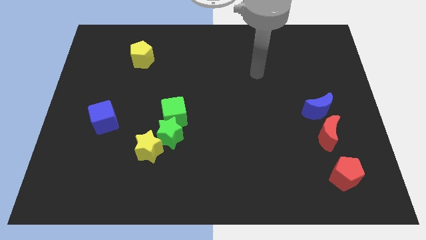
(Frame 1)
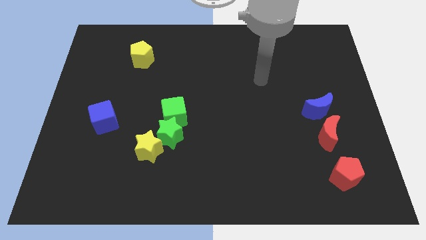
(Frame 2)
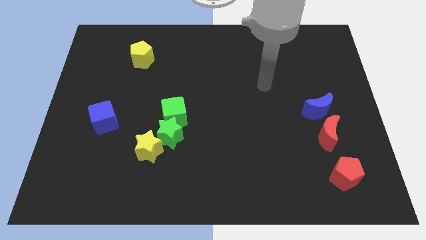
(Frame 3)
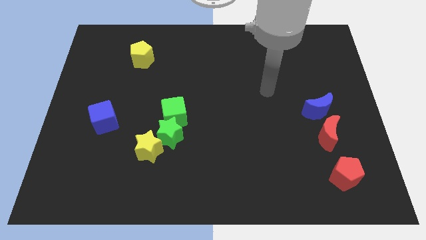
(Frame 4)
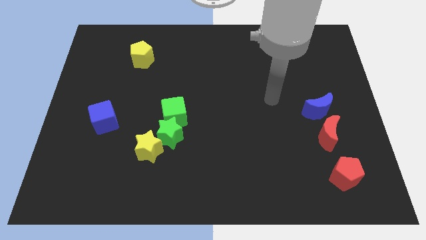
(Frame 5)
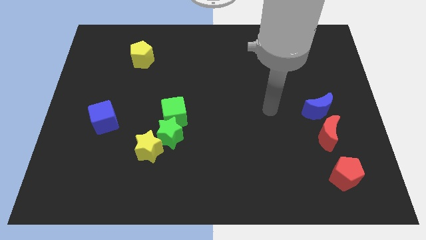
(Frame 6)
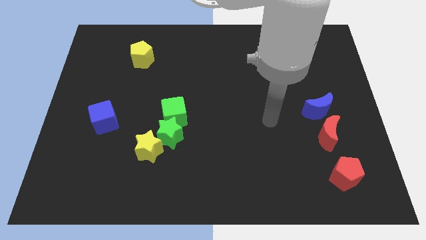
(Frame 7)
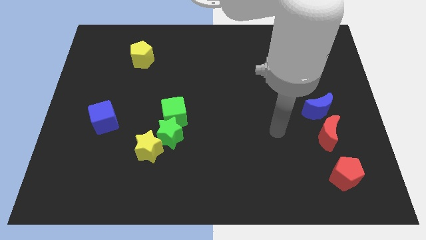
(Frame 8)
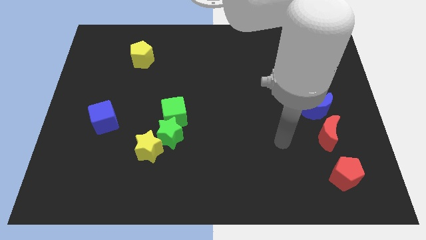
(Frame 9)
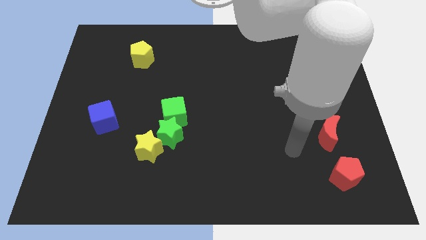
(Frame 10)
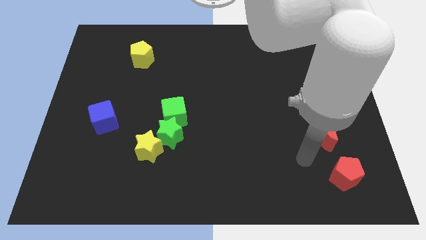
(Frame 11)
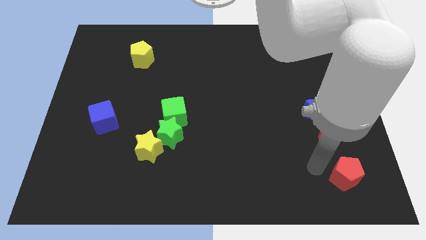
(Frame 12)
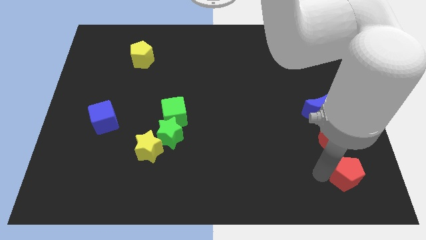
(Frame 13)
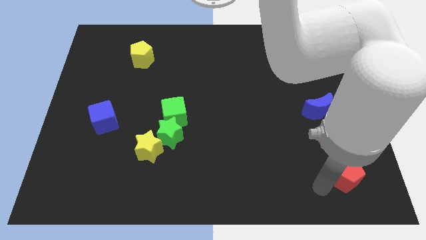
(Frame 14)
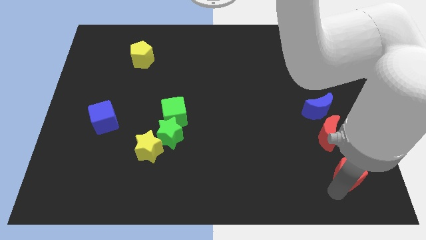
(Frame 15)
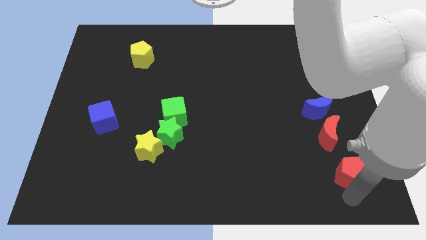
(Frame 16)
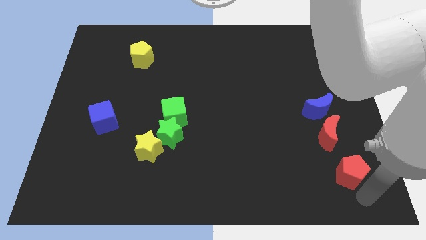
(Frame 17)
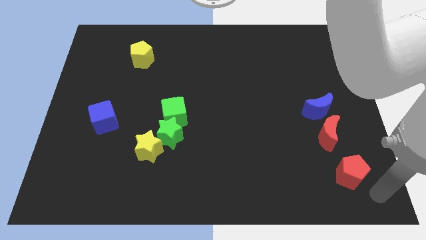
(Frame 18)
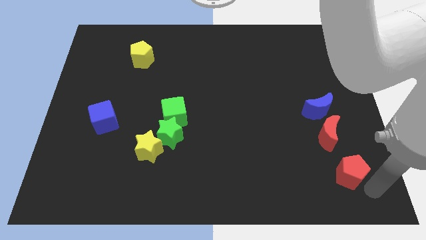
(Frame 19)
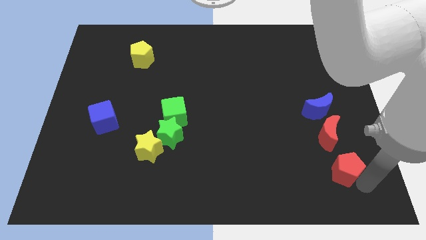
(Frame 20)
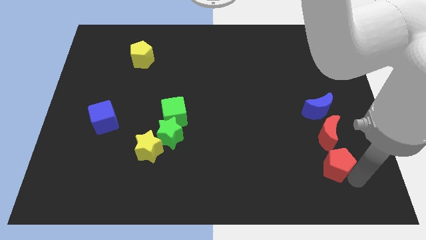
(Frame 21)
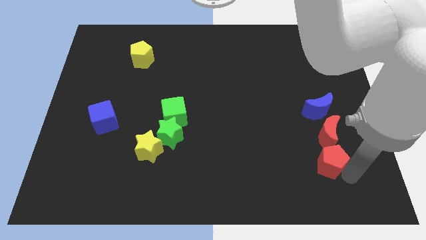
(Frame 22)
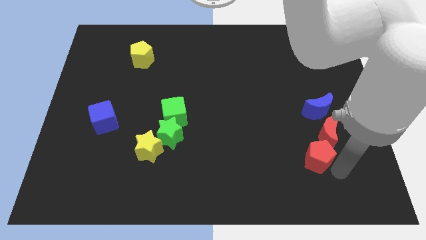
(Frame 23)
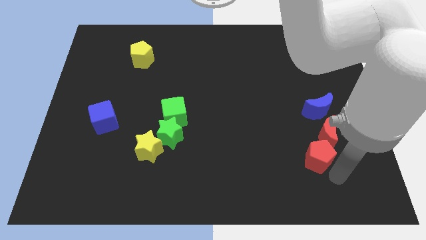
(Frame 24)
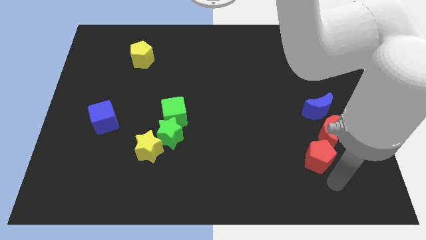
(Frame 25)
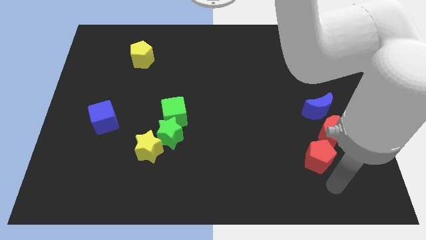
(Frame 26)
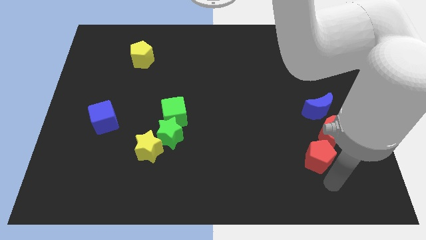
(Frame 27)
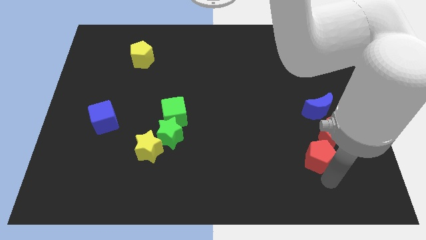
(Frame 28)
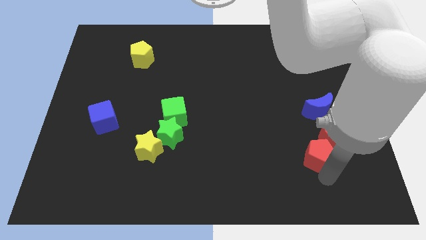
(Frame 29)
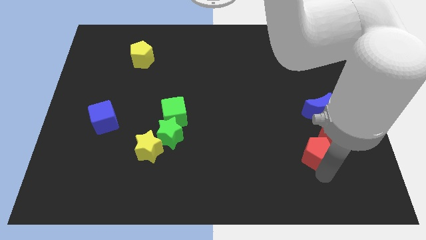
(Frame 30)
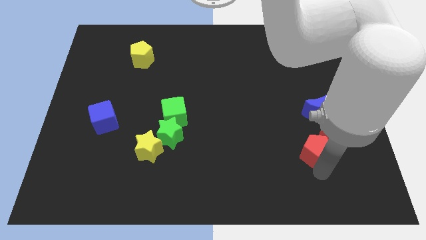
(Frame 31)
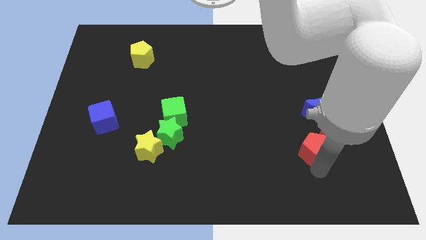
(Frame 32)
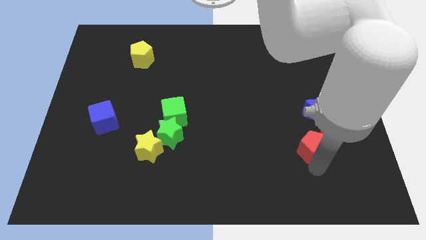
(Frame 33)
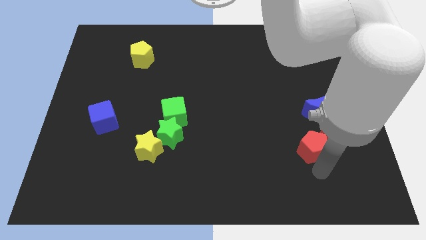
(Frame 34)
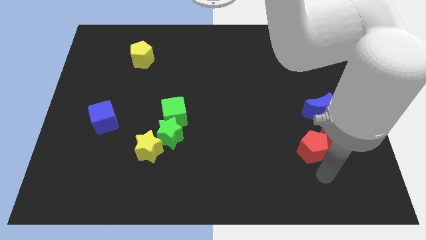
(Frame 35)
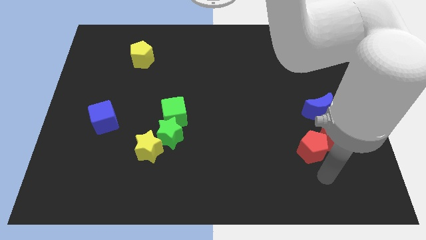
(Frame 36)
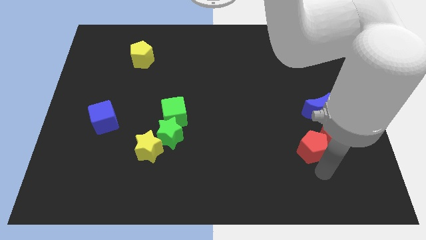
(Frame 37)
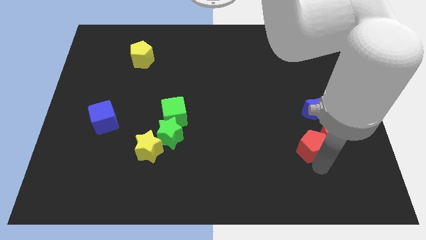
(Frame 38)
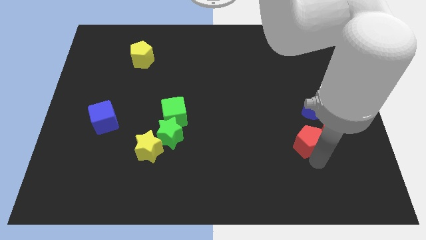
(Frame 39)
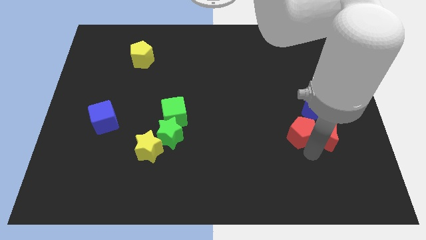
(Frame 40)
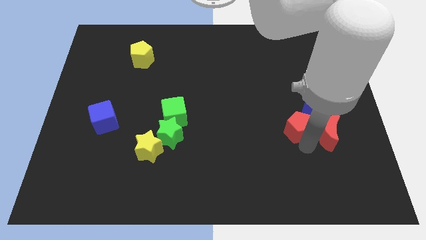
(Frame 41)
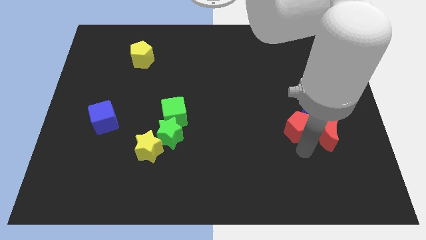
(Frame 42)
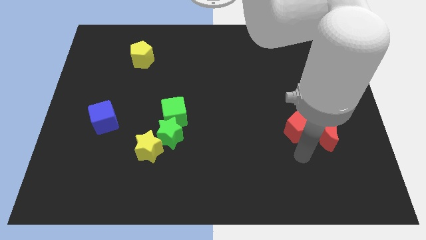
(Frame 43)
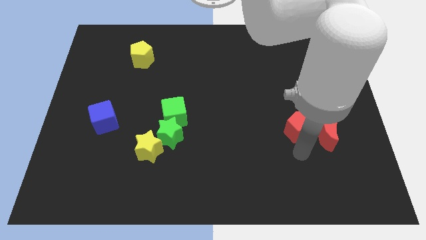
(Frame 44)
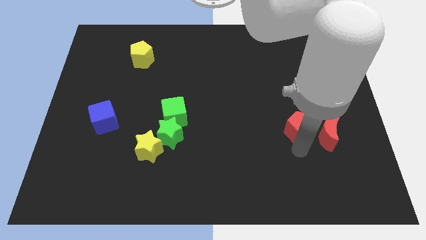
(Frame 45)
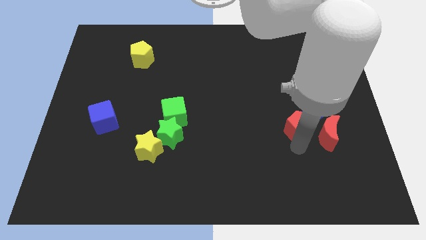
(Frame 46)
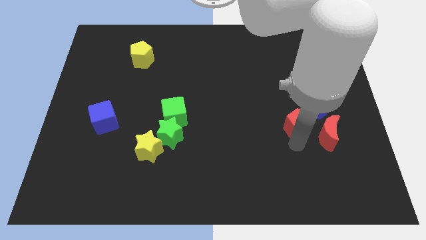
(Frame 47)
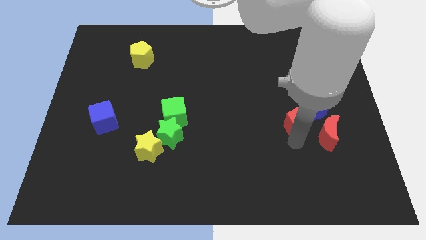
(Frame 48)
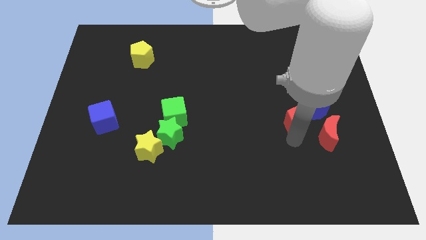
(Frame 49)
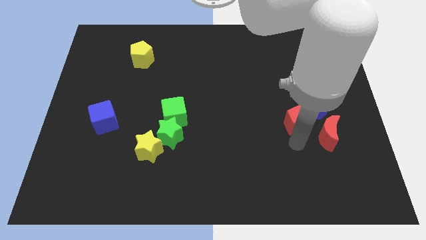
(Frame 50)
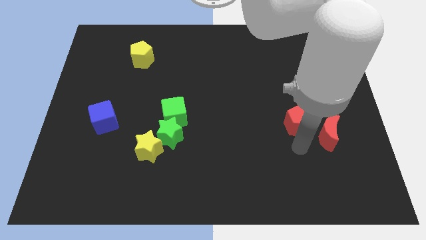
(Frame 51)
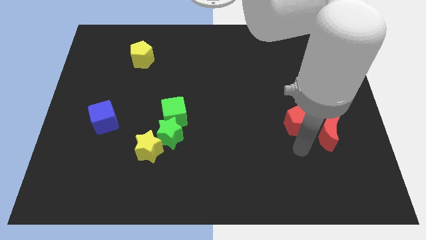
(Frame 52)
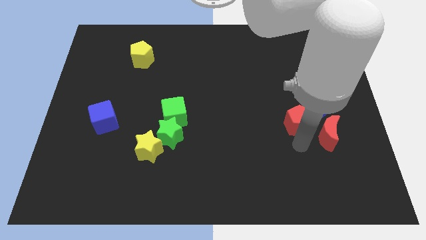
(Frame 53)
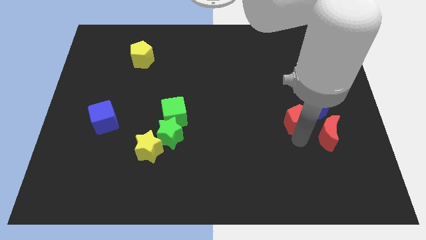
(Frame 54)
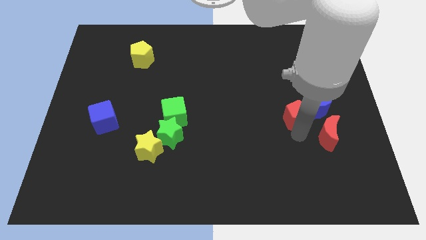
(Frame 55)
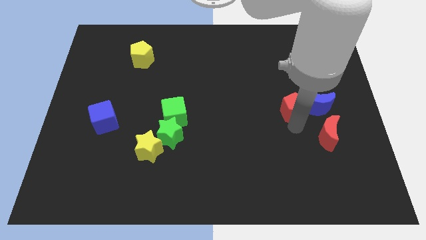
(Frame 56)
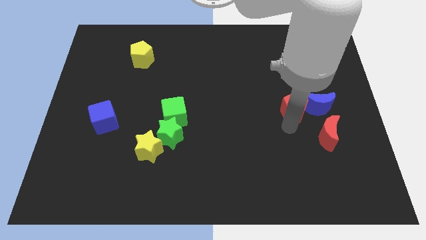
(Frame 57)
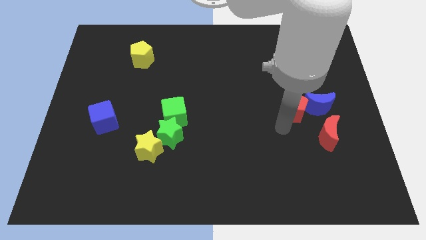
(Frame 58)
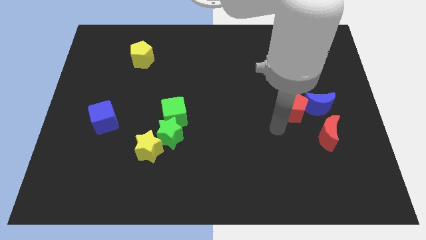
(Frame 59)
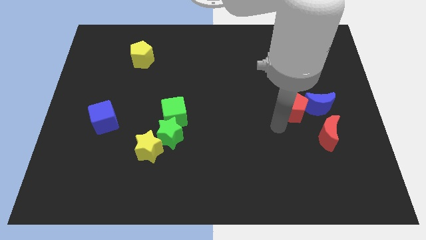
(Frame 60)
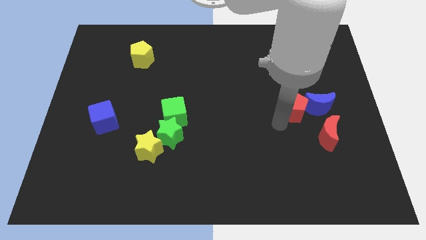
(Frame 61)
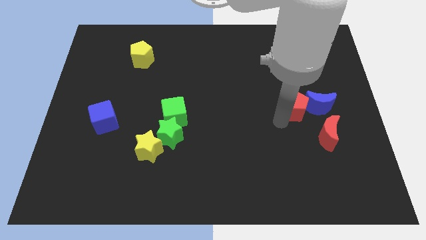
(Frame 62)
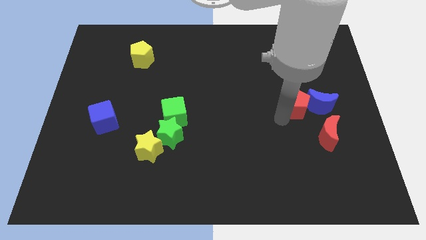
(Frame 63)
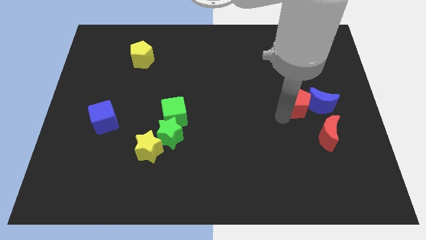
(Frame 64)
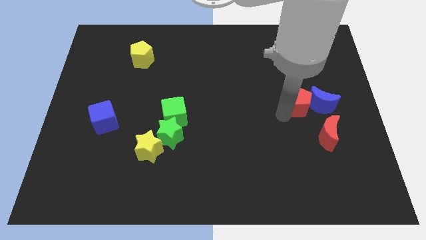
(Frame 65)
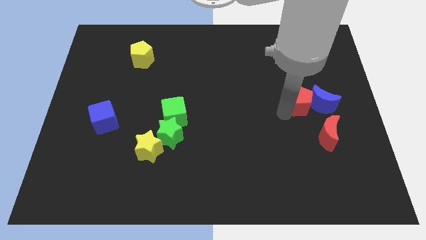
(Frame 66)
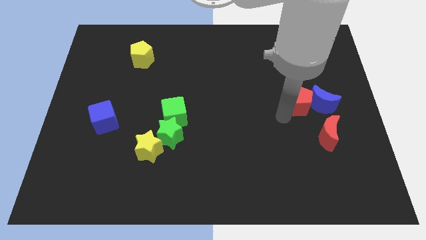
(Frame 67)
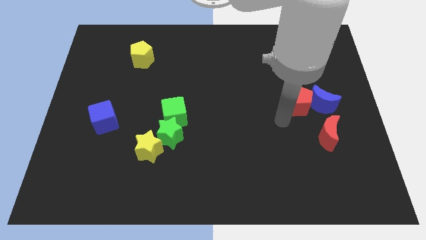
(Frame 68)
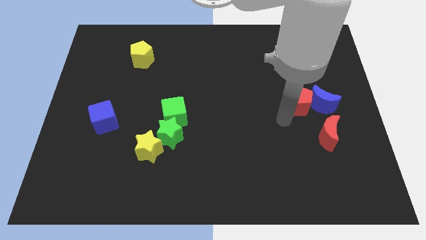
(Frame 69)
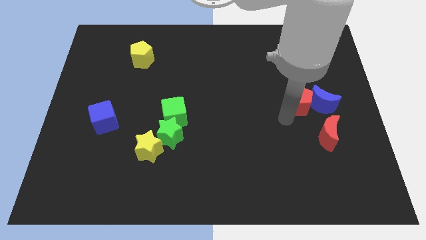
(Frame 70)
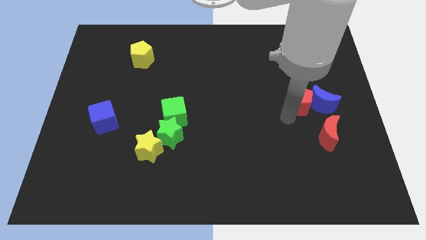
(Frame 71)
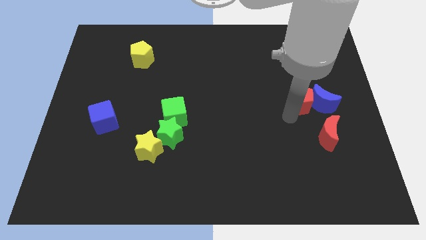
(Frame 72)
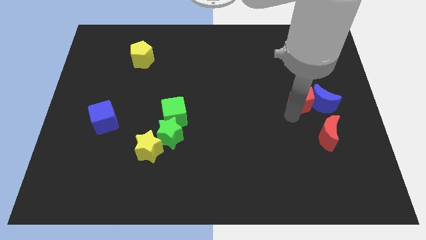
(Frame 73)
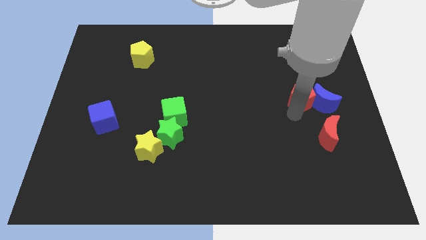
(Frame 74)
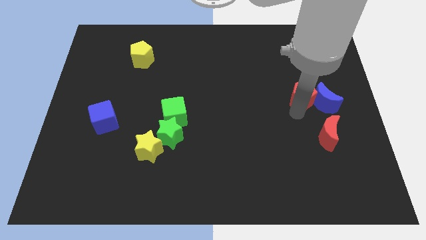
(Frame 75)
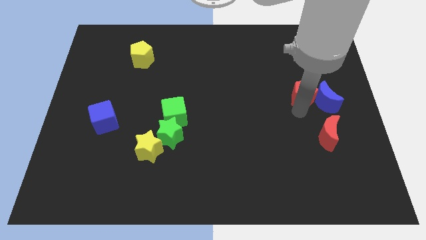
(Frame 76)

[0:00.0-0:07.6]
slide the red pentagon up

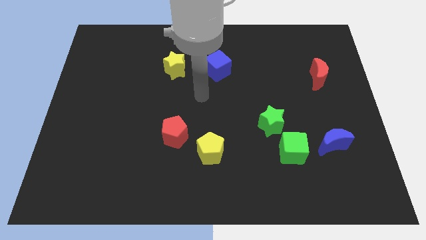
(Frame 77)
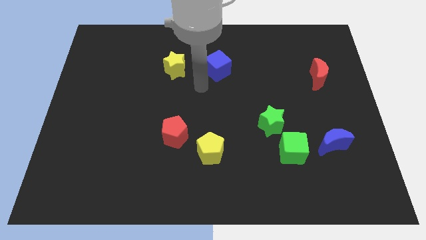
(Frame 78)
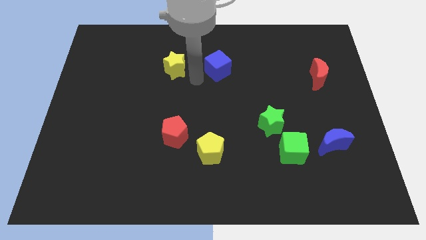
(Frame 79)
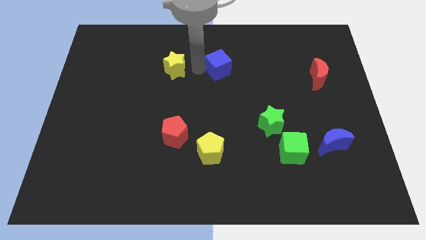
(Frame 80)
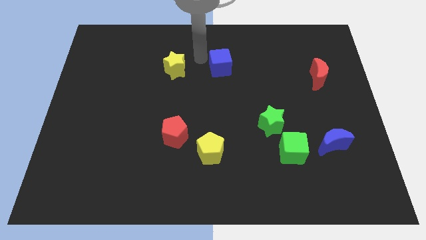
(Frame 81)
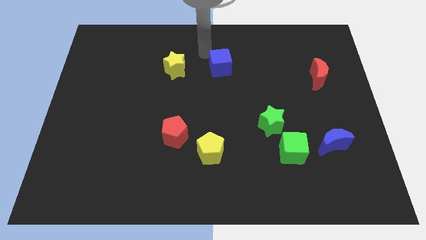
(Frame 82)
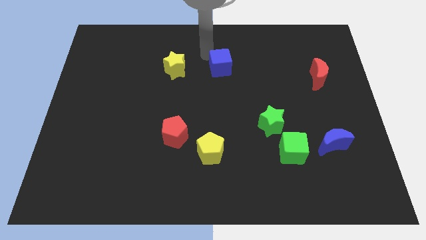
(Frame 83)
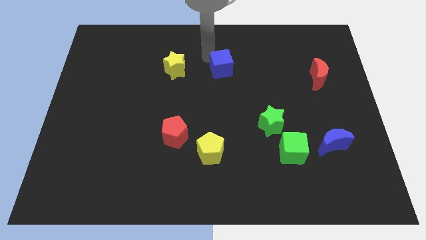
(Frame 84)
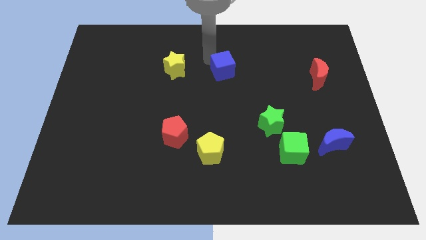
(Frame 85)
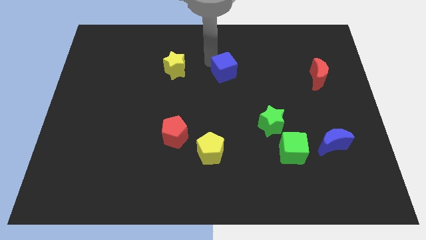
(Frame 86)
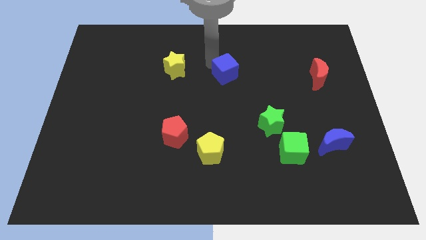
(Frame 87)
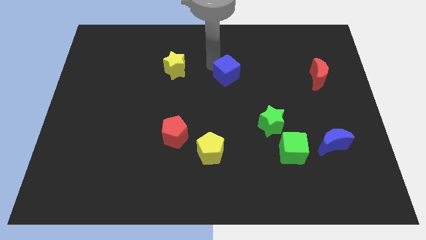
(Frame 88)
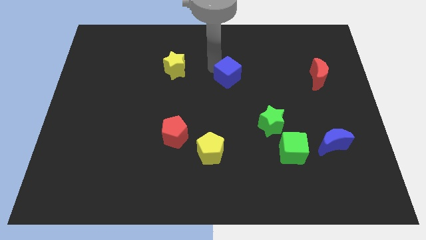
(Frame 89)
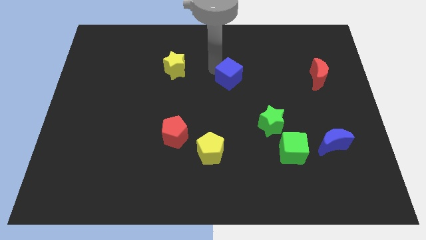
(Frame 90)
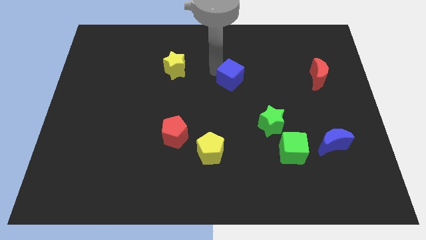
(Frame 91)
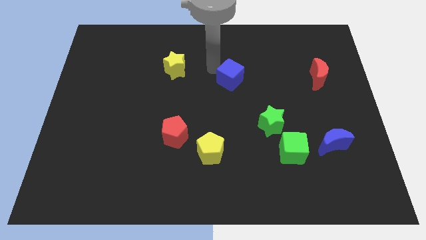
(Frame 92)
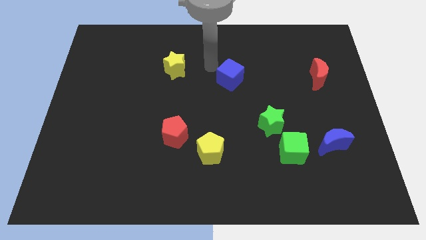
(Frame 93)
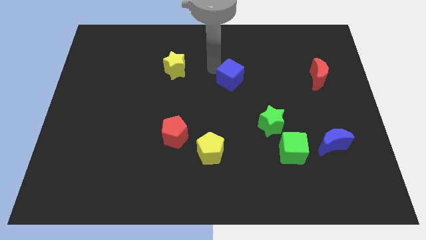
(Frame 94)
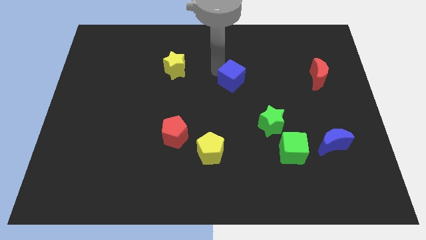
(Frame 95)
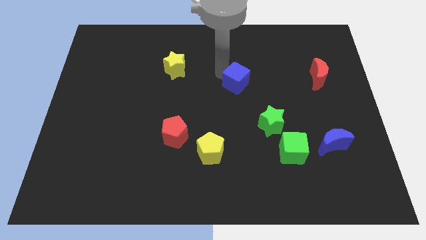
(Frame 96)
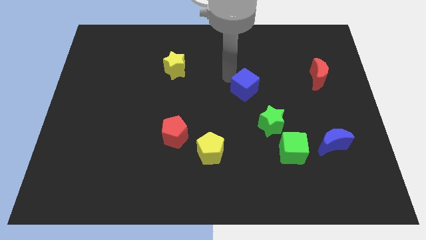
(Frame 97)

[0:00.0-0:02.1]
slide the blue cube diagonally downwards and to the right slightly
